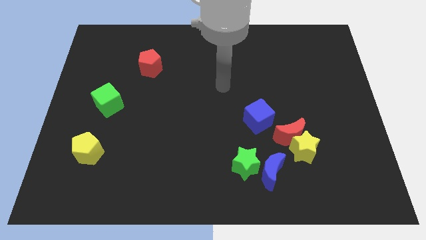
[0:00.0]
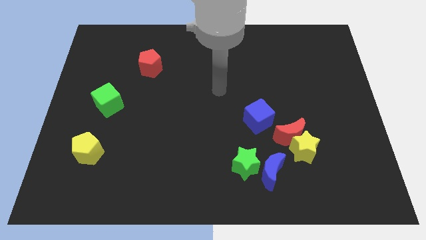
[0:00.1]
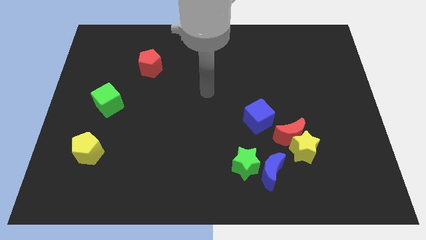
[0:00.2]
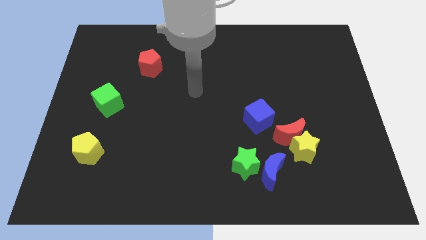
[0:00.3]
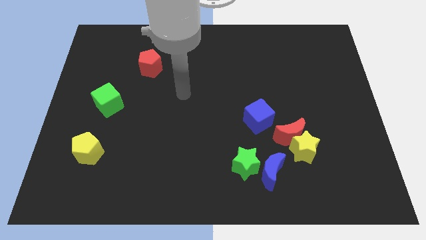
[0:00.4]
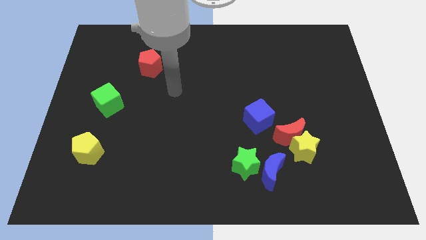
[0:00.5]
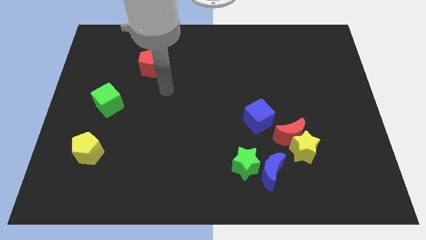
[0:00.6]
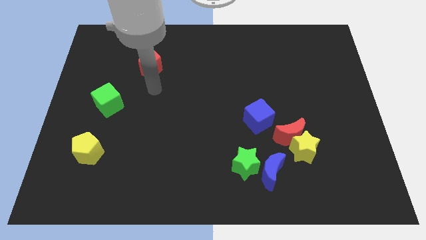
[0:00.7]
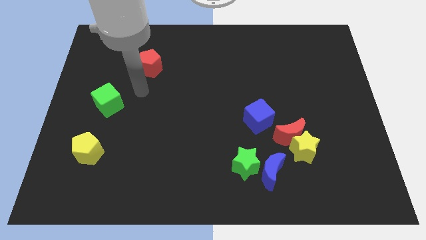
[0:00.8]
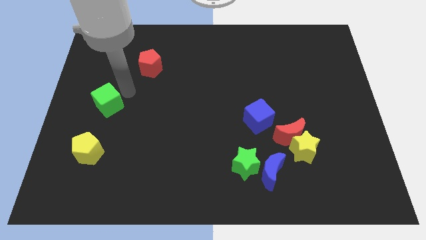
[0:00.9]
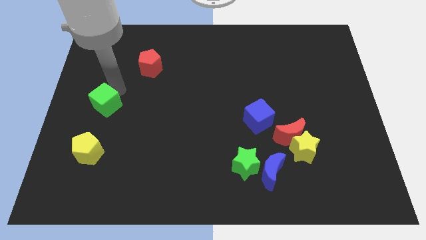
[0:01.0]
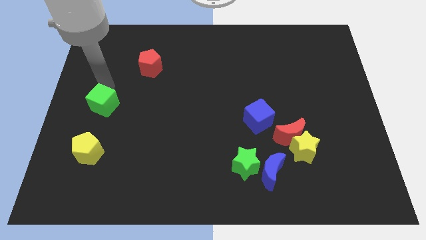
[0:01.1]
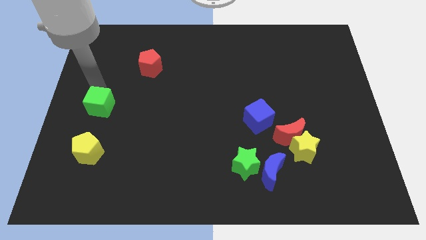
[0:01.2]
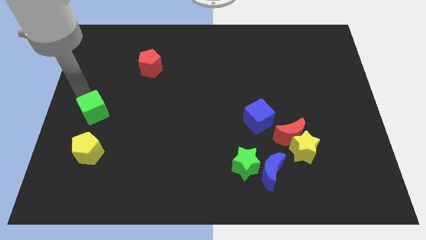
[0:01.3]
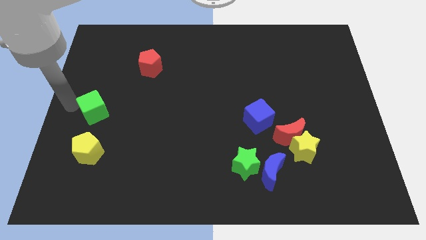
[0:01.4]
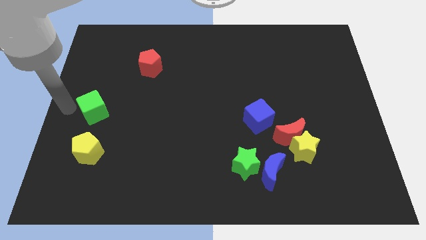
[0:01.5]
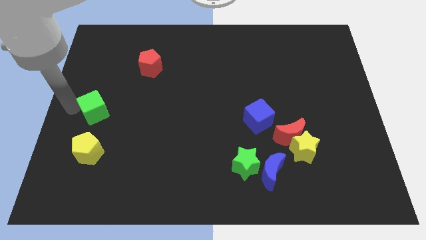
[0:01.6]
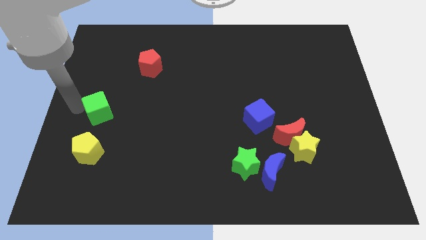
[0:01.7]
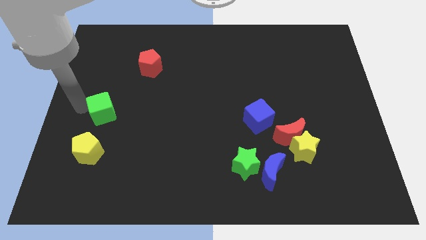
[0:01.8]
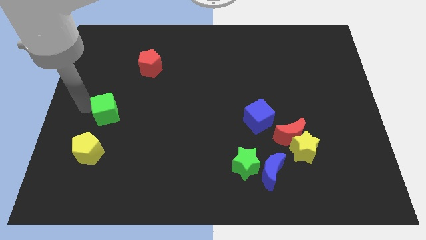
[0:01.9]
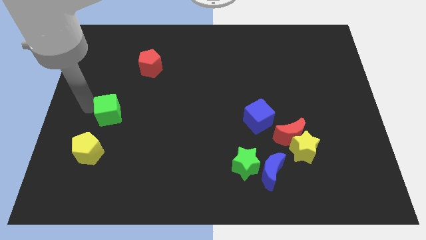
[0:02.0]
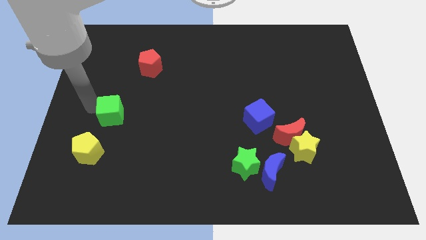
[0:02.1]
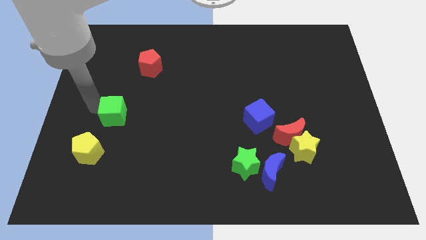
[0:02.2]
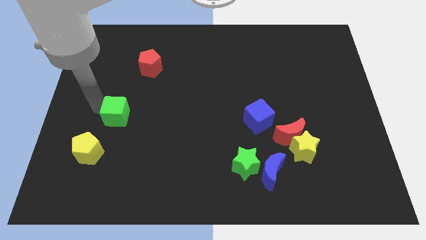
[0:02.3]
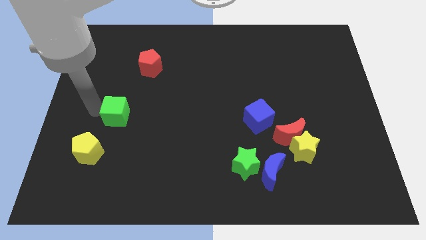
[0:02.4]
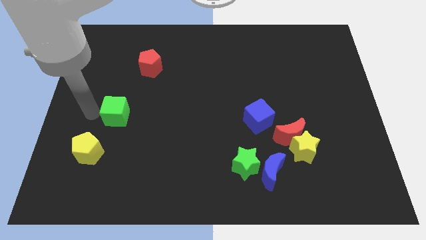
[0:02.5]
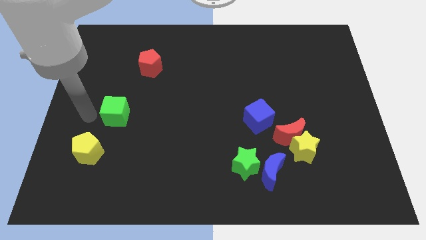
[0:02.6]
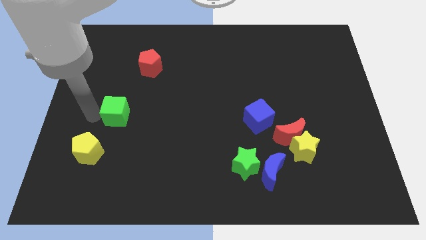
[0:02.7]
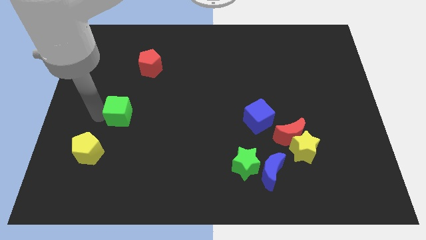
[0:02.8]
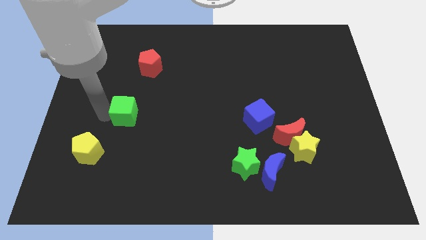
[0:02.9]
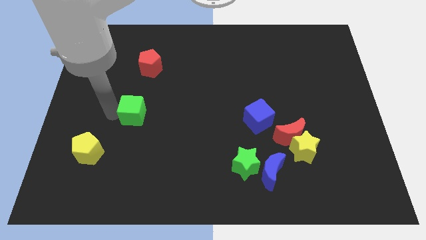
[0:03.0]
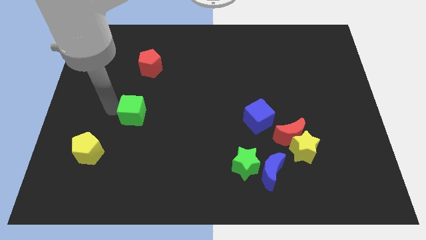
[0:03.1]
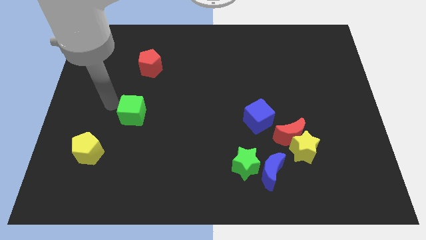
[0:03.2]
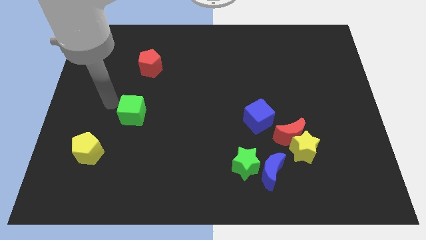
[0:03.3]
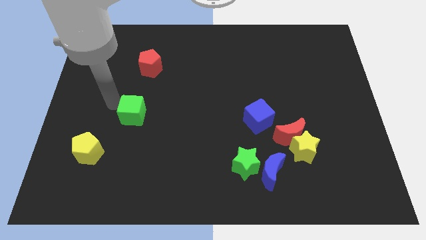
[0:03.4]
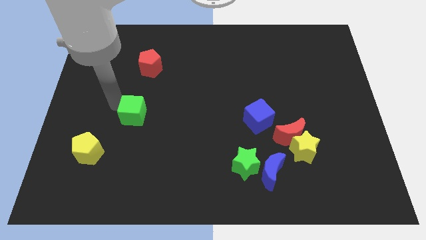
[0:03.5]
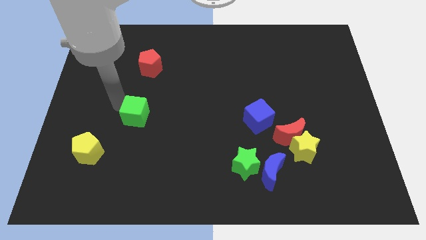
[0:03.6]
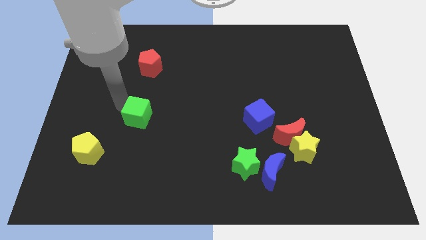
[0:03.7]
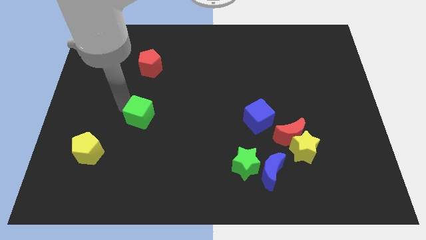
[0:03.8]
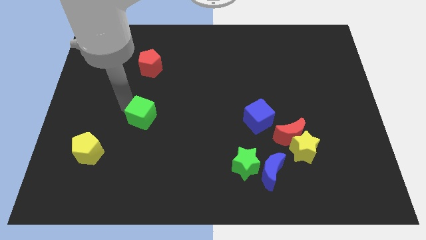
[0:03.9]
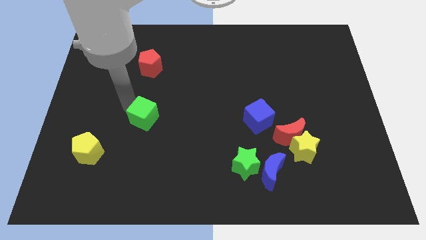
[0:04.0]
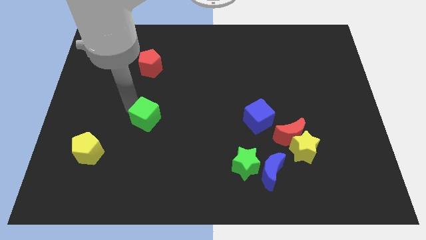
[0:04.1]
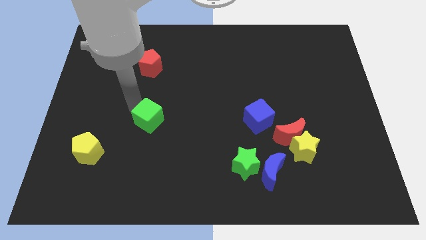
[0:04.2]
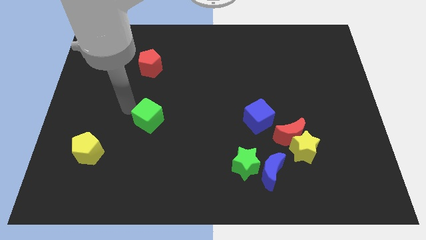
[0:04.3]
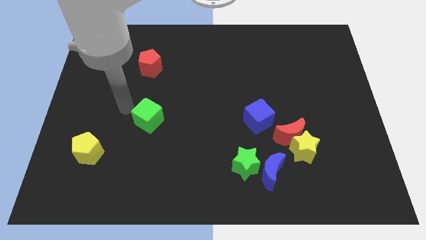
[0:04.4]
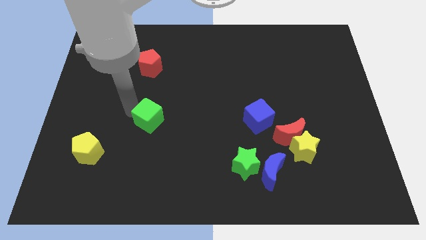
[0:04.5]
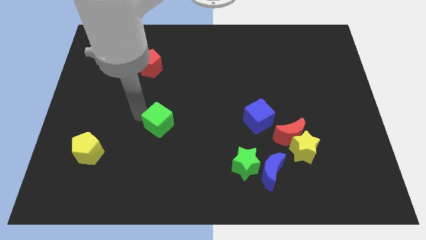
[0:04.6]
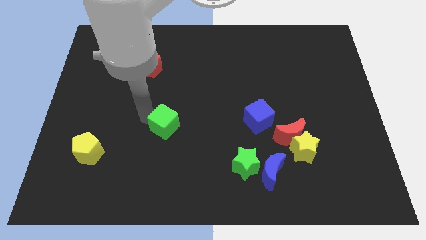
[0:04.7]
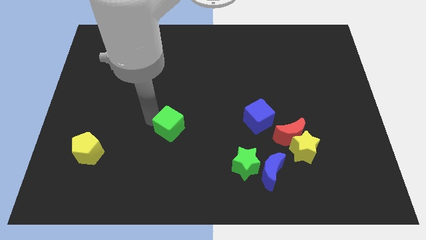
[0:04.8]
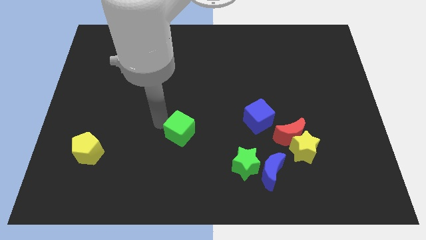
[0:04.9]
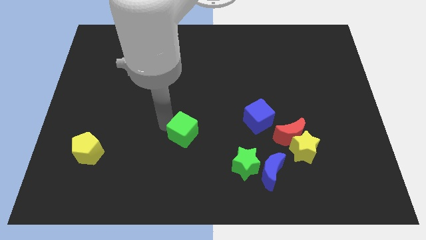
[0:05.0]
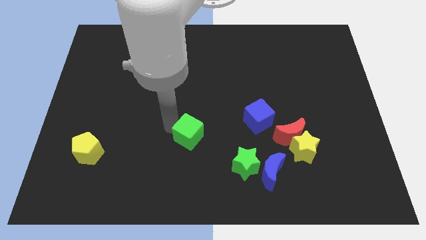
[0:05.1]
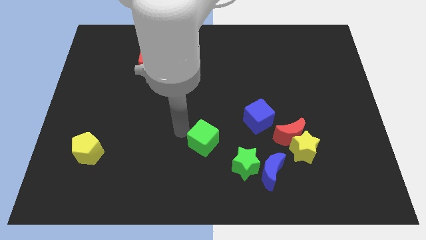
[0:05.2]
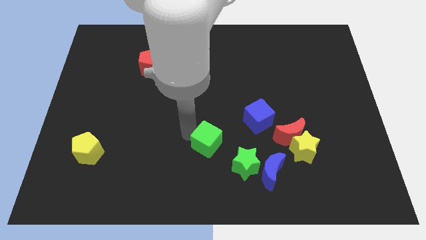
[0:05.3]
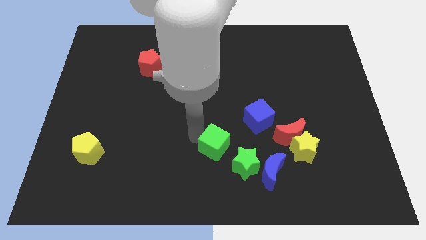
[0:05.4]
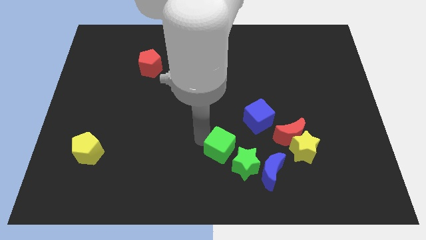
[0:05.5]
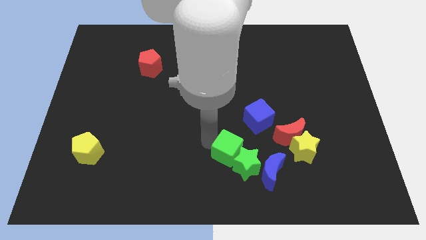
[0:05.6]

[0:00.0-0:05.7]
move the green cube to the green star

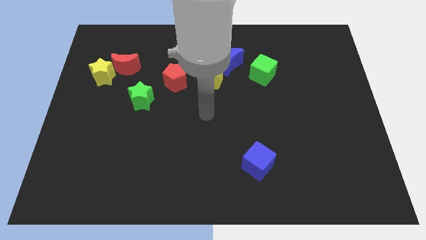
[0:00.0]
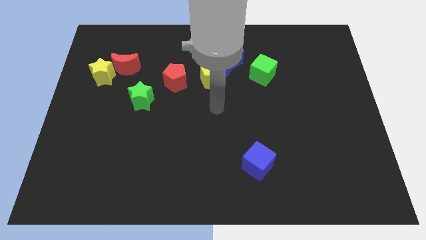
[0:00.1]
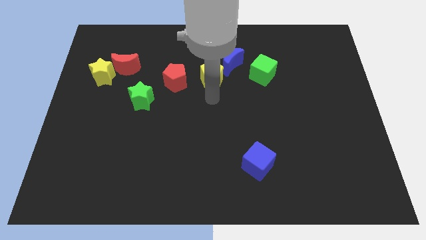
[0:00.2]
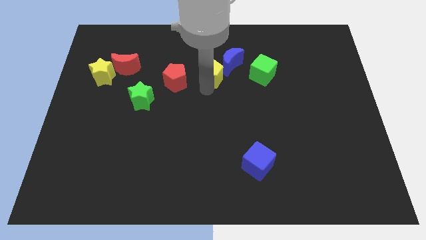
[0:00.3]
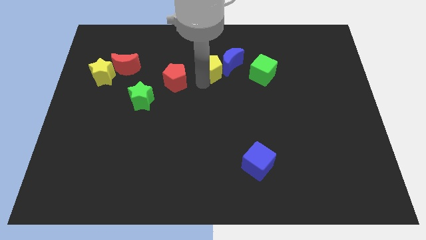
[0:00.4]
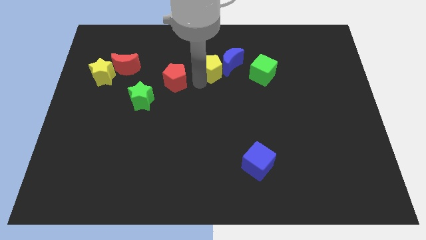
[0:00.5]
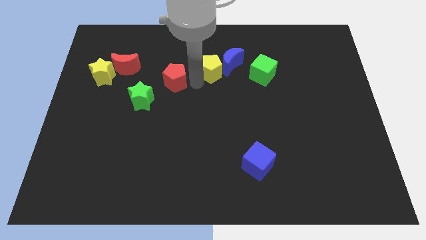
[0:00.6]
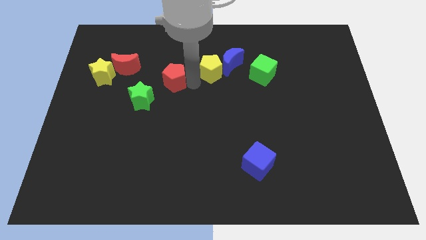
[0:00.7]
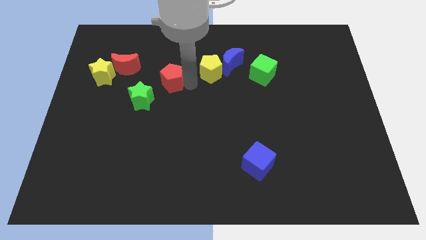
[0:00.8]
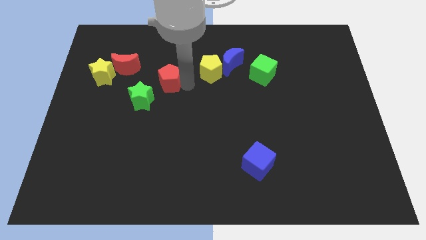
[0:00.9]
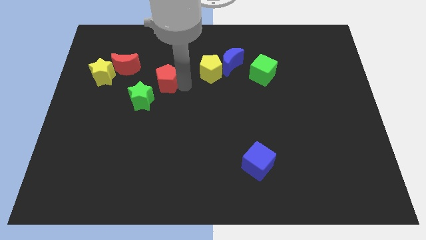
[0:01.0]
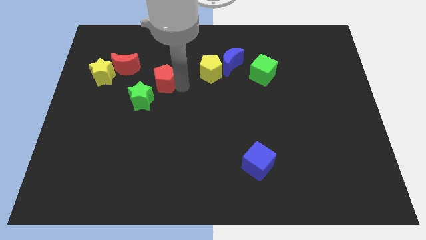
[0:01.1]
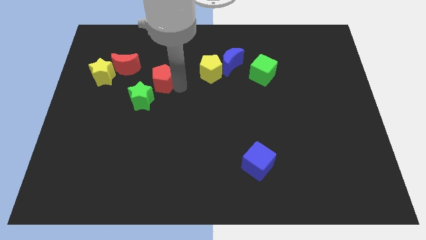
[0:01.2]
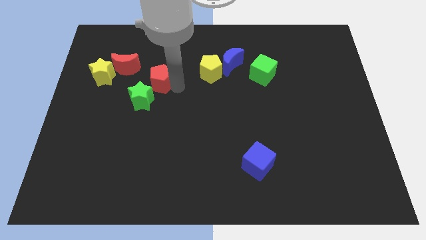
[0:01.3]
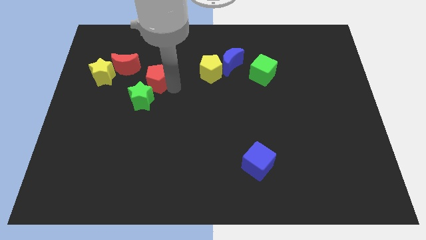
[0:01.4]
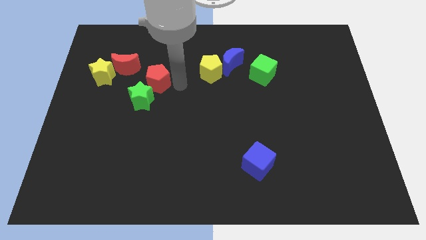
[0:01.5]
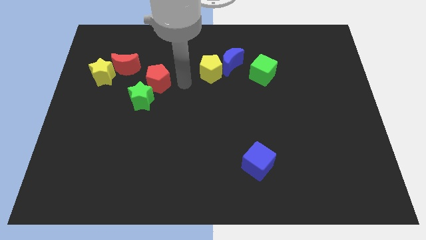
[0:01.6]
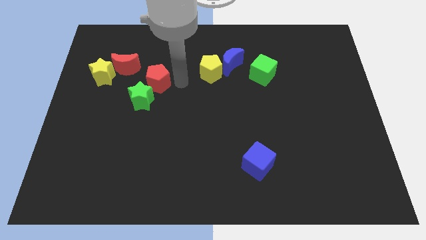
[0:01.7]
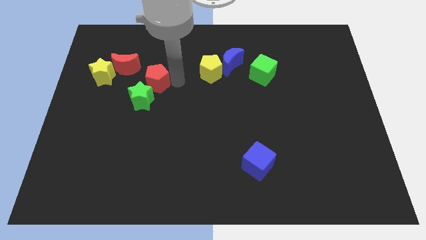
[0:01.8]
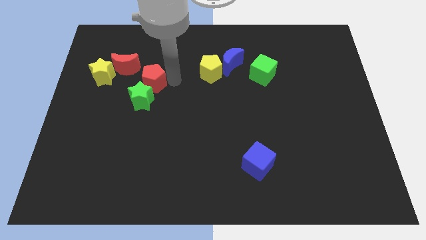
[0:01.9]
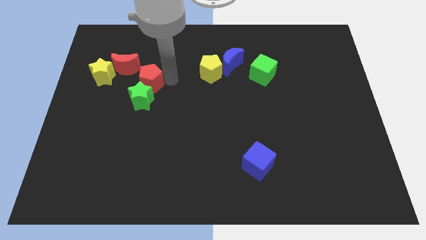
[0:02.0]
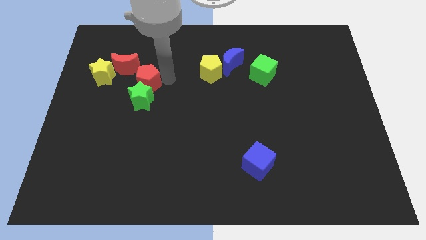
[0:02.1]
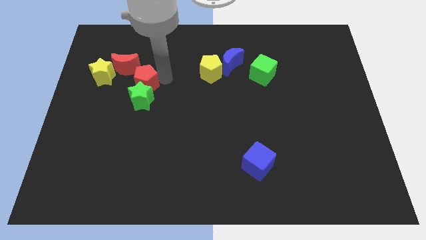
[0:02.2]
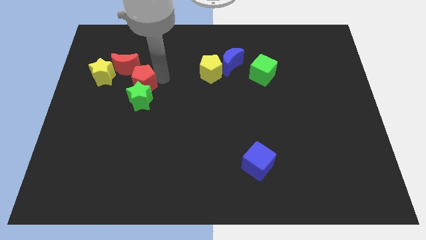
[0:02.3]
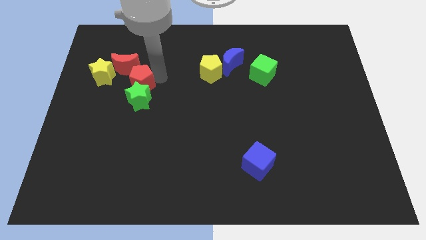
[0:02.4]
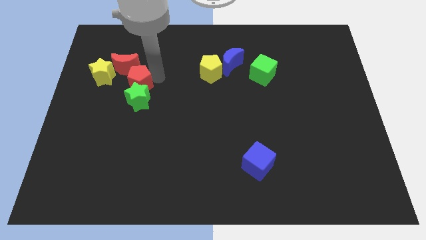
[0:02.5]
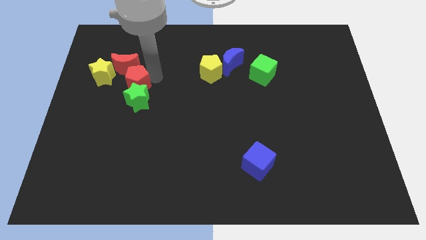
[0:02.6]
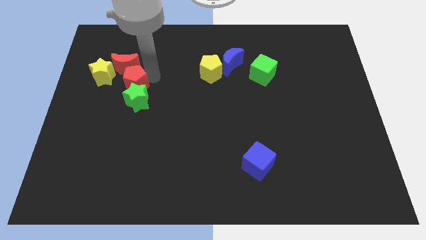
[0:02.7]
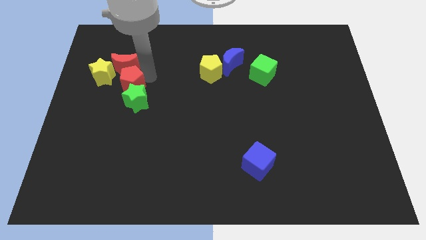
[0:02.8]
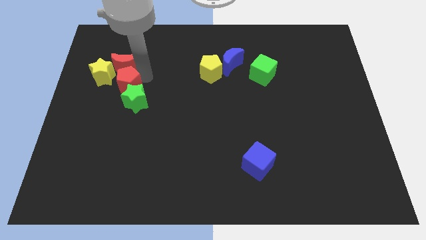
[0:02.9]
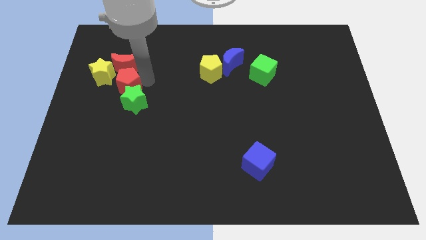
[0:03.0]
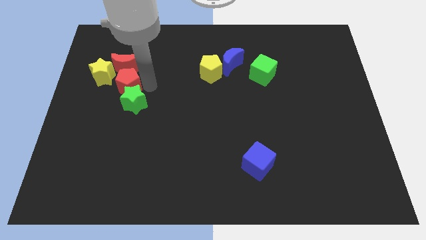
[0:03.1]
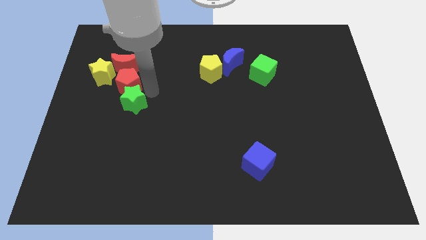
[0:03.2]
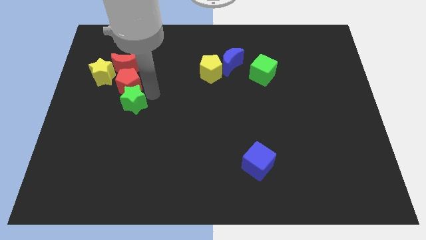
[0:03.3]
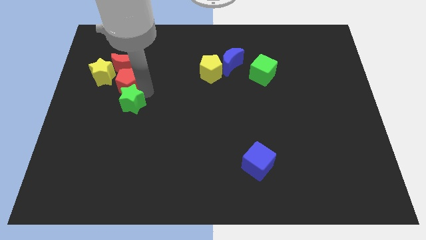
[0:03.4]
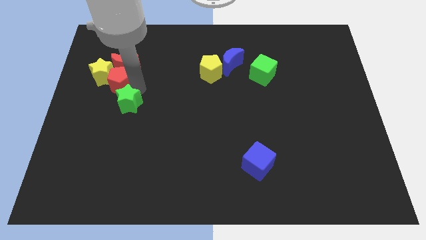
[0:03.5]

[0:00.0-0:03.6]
put the red pentagon close to the yellow star
